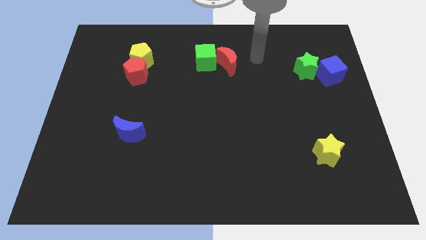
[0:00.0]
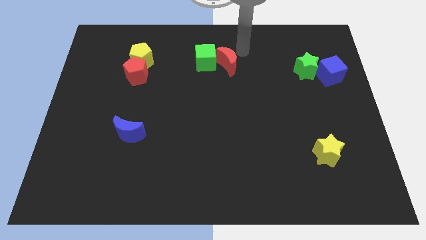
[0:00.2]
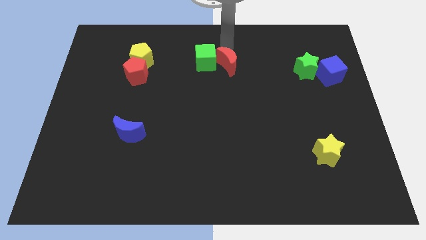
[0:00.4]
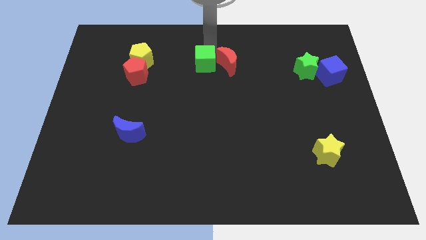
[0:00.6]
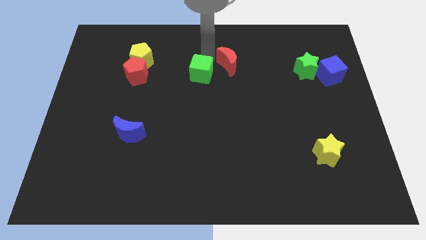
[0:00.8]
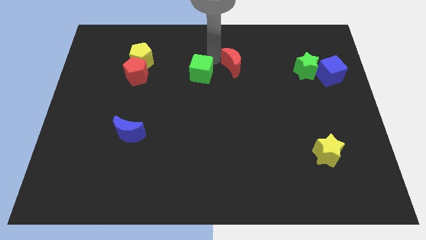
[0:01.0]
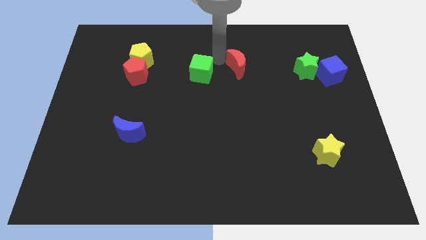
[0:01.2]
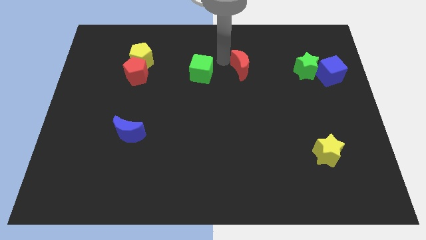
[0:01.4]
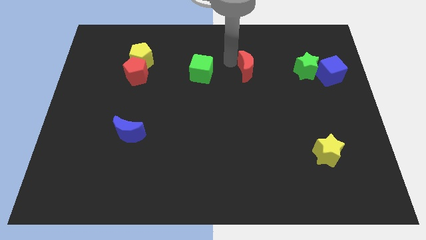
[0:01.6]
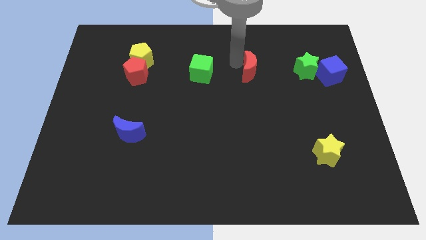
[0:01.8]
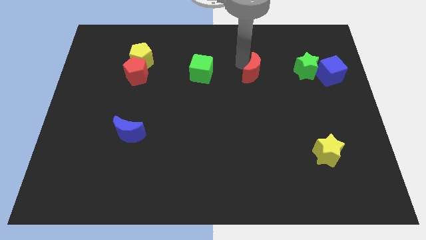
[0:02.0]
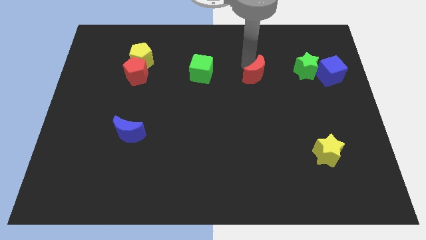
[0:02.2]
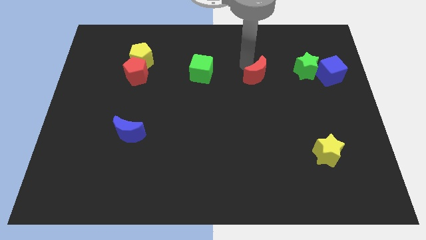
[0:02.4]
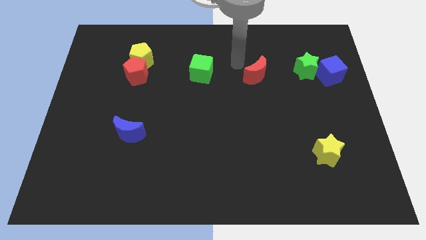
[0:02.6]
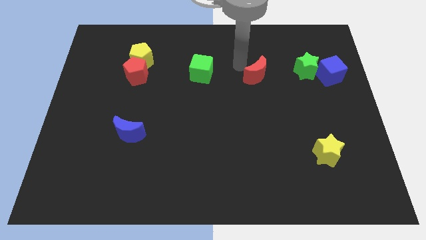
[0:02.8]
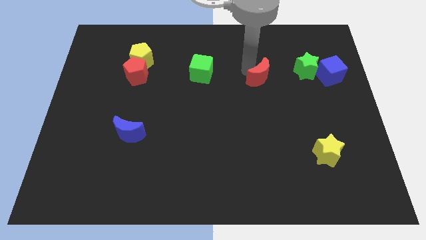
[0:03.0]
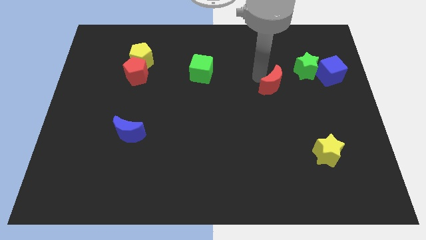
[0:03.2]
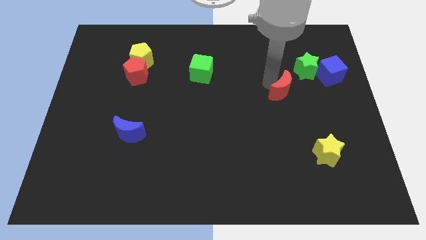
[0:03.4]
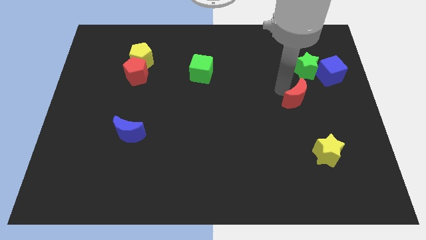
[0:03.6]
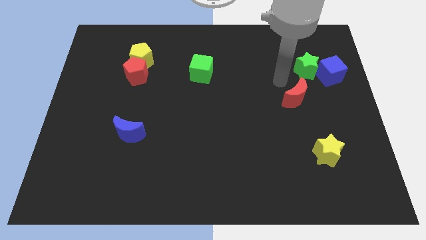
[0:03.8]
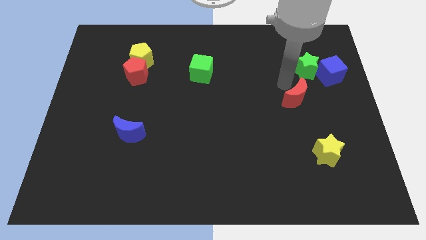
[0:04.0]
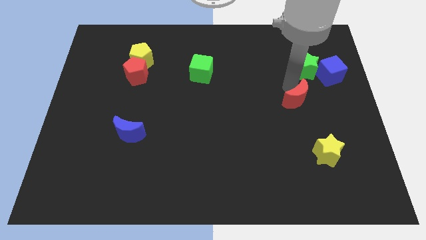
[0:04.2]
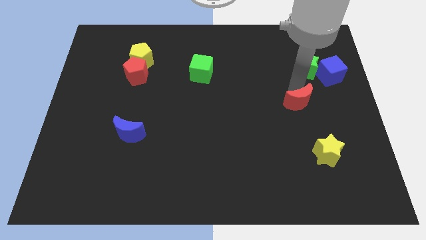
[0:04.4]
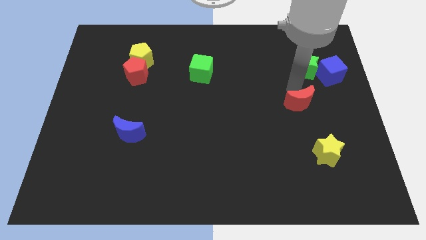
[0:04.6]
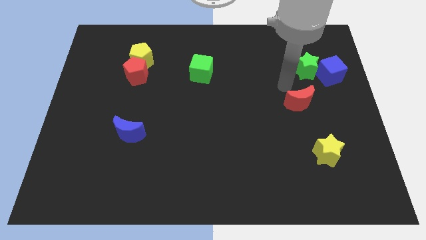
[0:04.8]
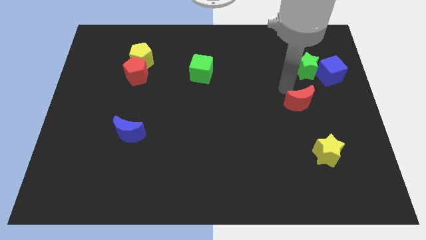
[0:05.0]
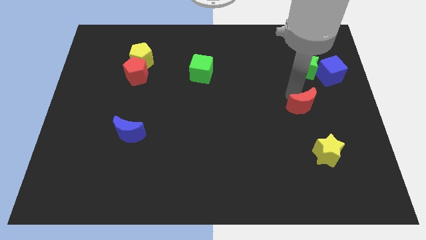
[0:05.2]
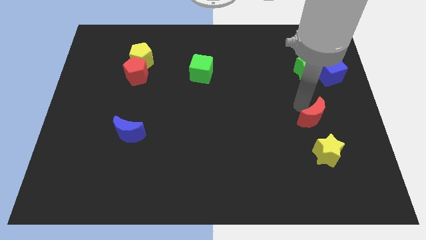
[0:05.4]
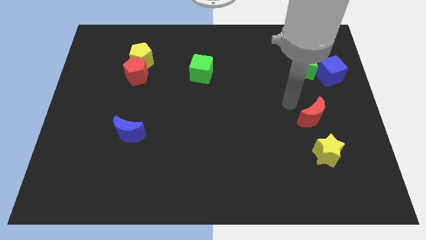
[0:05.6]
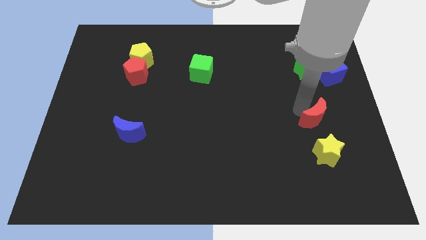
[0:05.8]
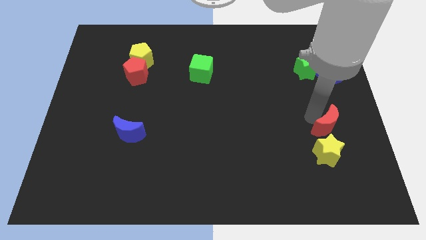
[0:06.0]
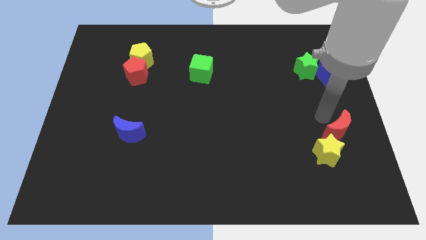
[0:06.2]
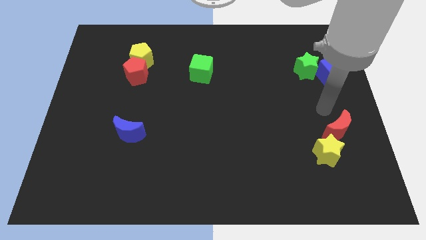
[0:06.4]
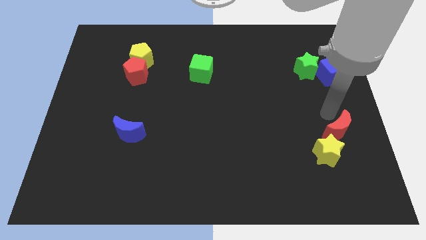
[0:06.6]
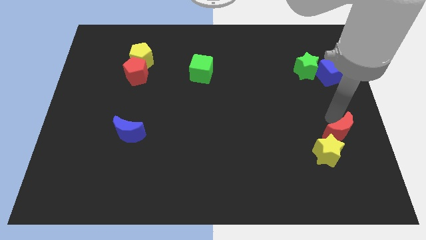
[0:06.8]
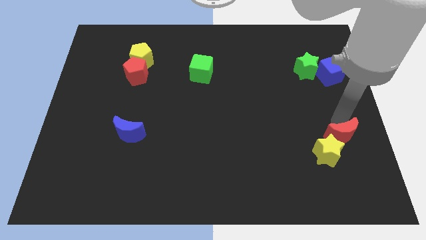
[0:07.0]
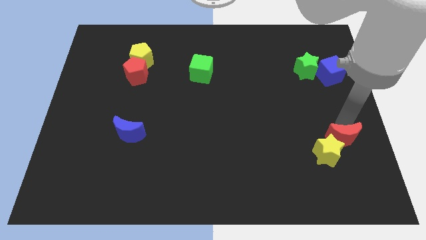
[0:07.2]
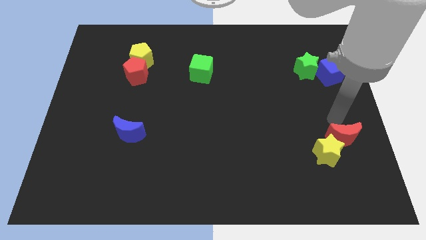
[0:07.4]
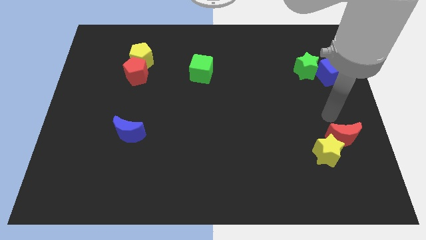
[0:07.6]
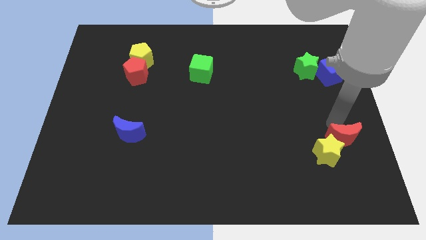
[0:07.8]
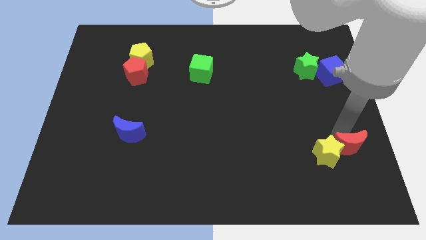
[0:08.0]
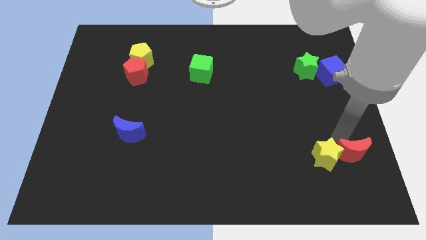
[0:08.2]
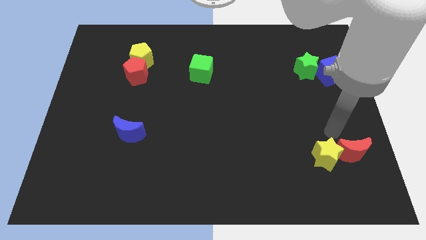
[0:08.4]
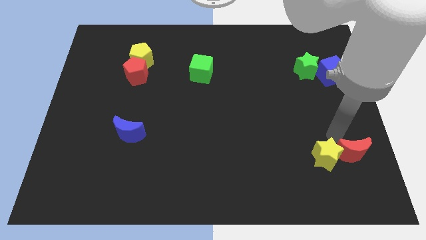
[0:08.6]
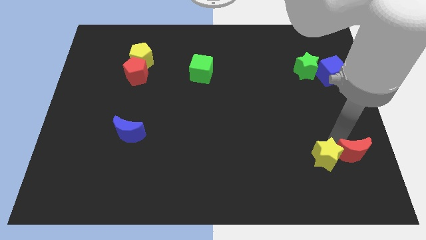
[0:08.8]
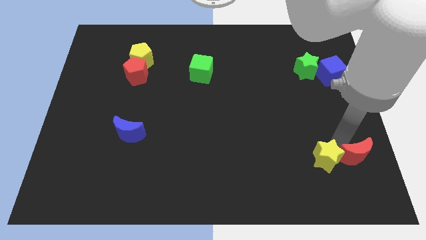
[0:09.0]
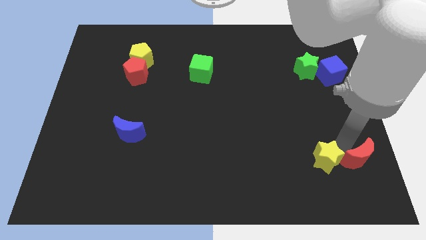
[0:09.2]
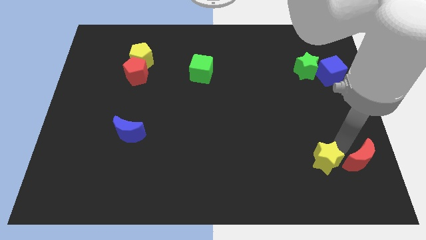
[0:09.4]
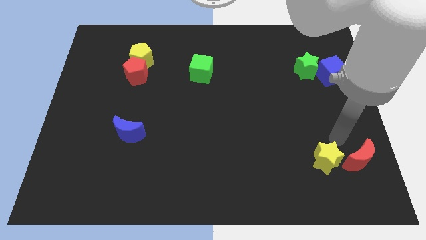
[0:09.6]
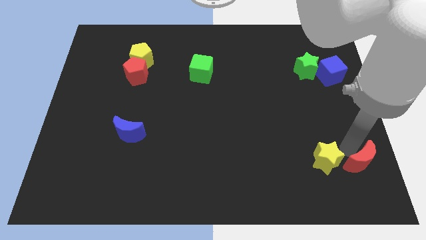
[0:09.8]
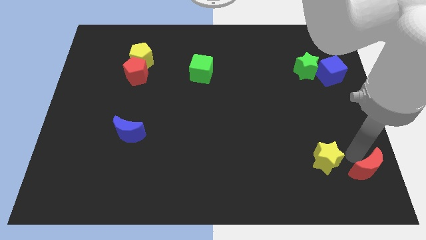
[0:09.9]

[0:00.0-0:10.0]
move the red moon to the lower right corner
